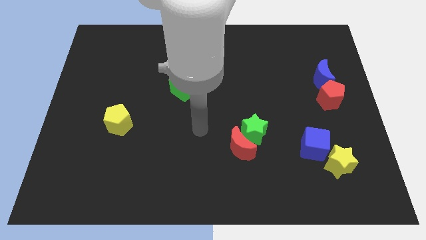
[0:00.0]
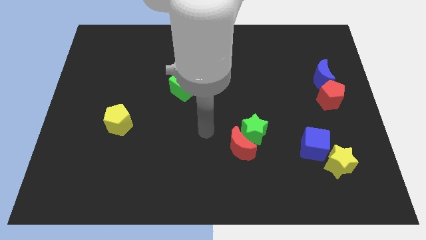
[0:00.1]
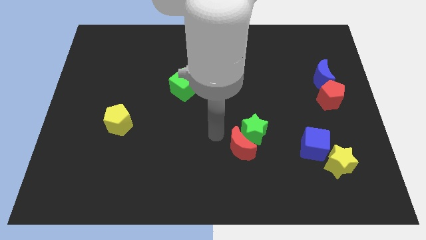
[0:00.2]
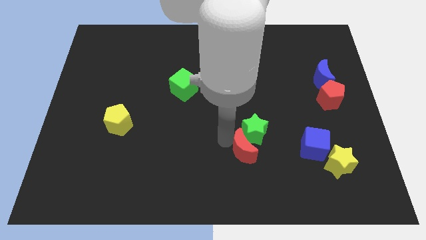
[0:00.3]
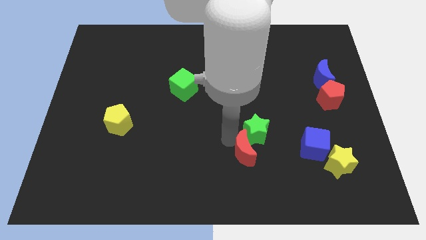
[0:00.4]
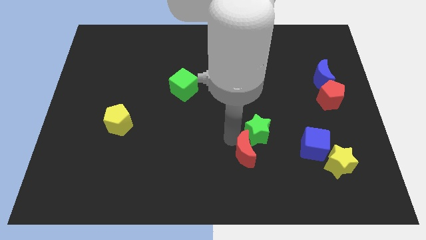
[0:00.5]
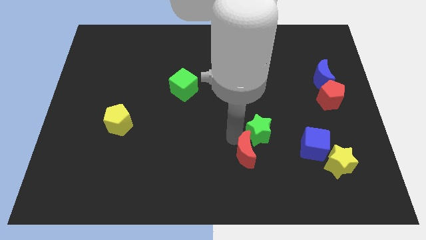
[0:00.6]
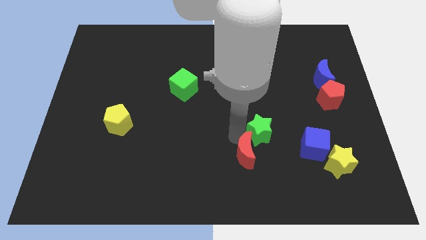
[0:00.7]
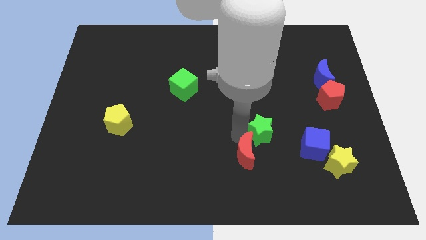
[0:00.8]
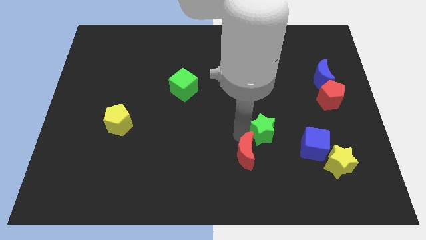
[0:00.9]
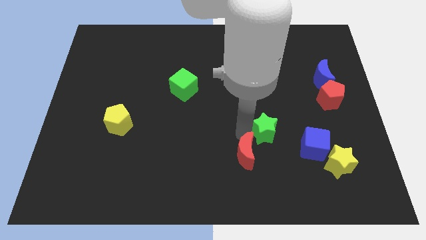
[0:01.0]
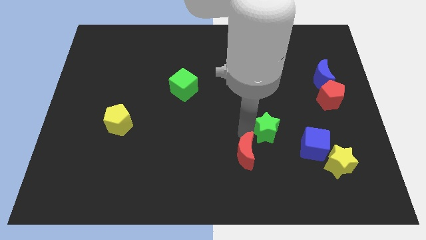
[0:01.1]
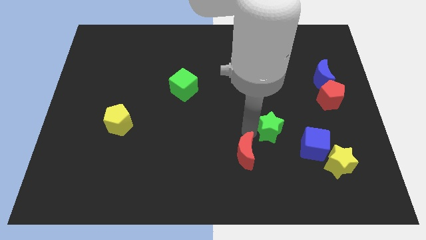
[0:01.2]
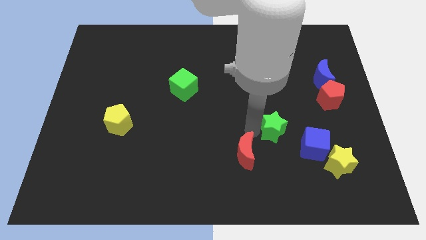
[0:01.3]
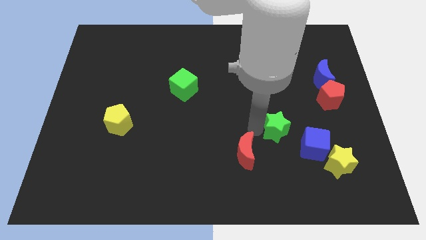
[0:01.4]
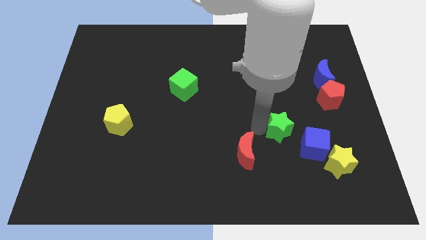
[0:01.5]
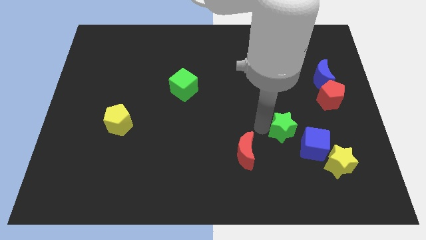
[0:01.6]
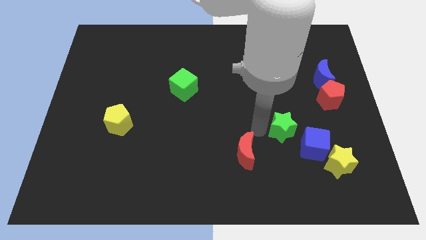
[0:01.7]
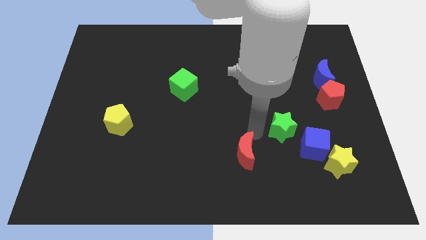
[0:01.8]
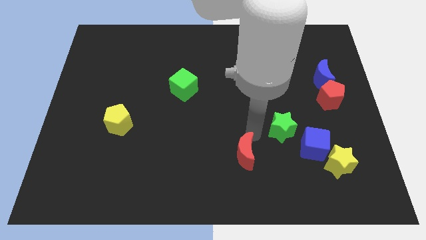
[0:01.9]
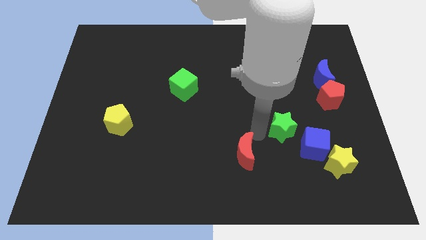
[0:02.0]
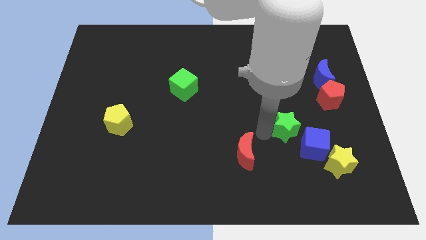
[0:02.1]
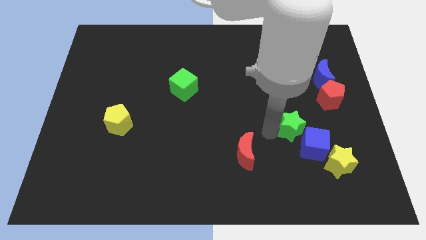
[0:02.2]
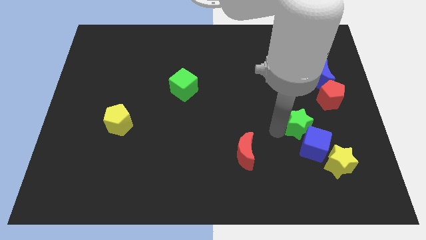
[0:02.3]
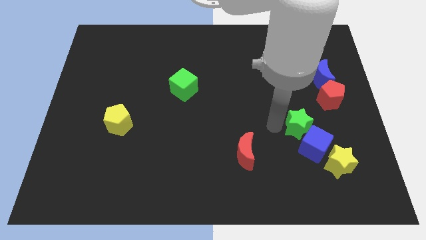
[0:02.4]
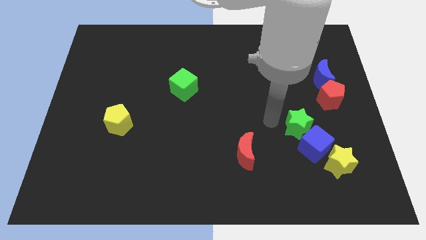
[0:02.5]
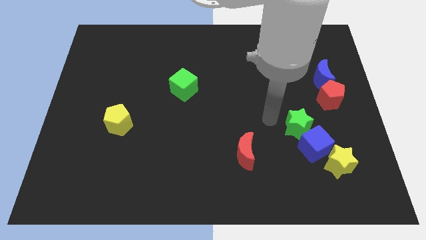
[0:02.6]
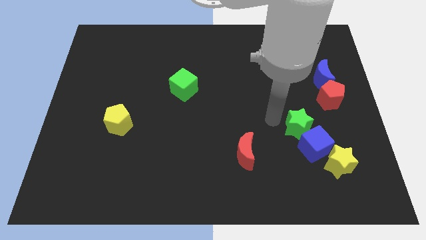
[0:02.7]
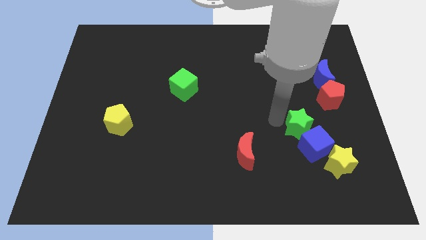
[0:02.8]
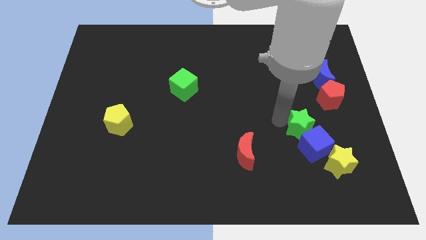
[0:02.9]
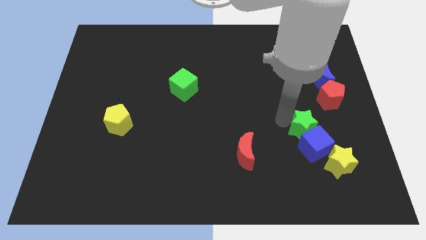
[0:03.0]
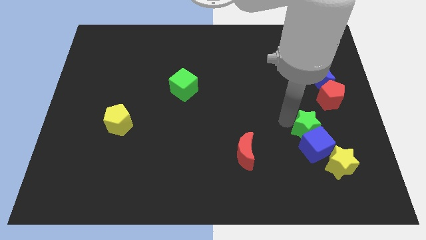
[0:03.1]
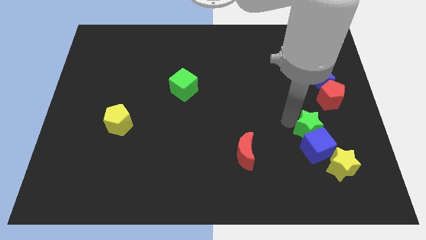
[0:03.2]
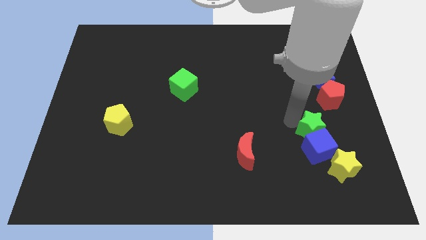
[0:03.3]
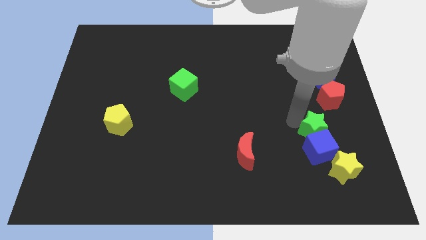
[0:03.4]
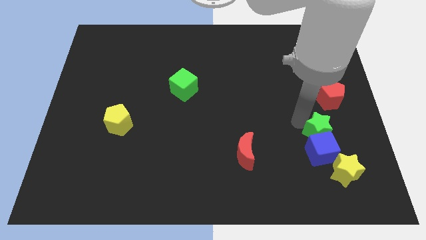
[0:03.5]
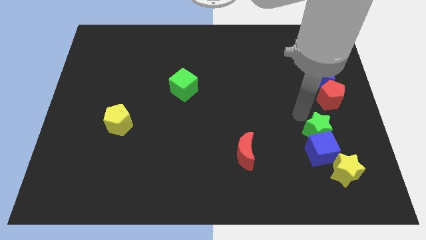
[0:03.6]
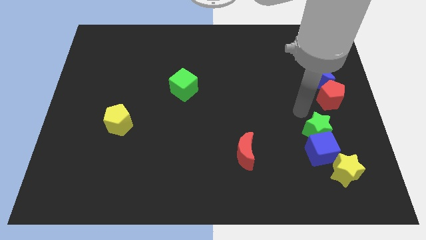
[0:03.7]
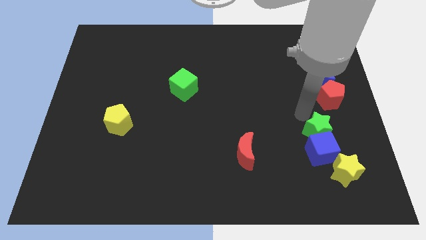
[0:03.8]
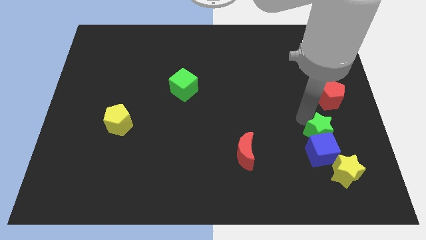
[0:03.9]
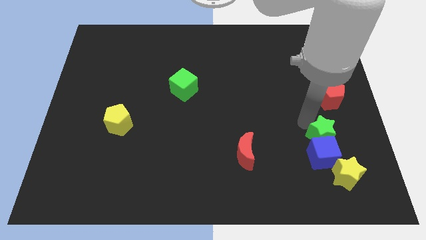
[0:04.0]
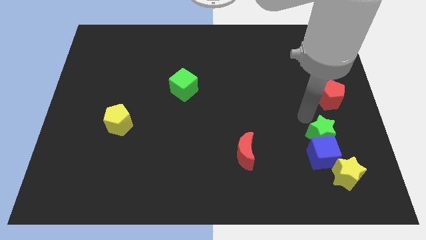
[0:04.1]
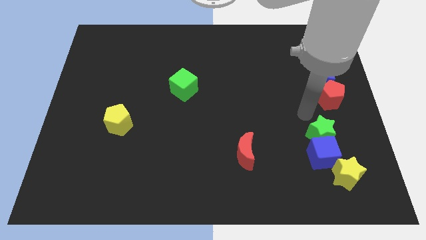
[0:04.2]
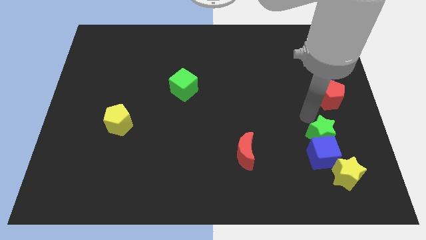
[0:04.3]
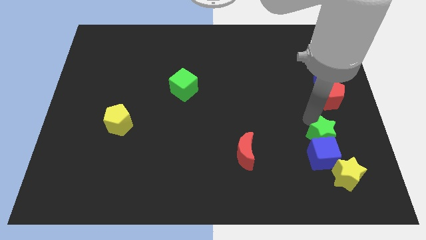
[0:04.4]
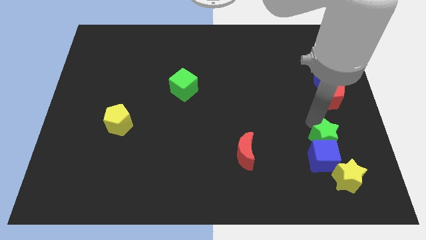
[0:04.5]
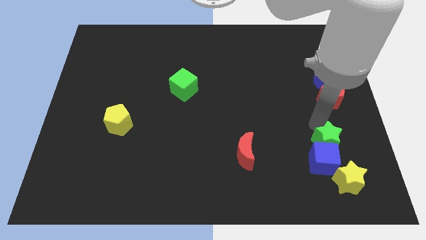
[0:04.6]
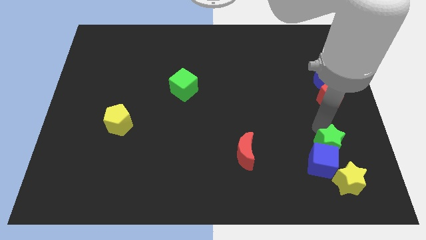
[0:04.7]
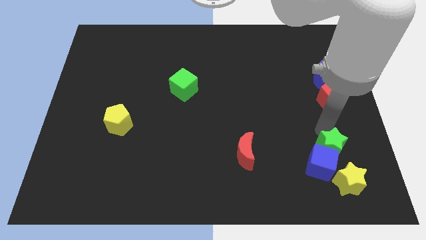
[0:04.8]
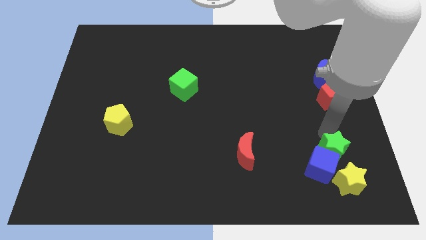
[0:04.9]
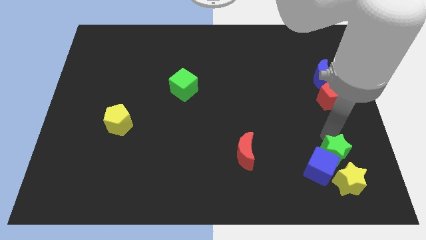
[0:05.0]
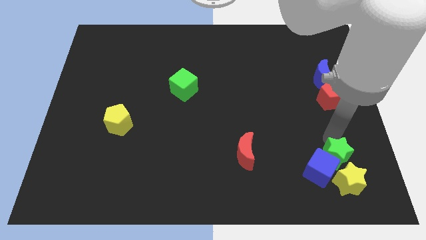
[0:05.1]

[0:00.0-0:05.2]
put the green star to the yellow star
